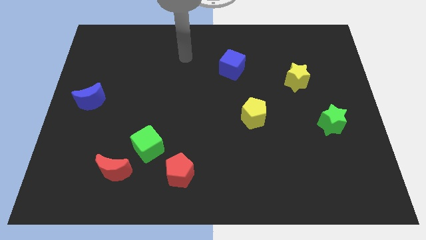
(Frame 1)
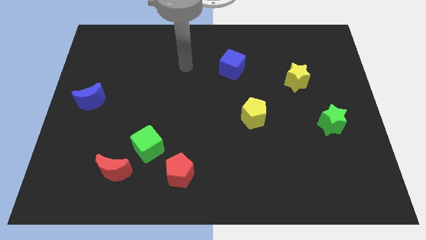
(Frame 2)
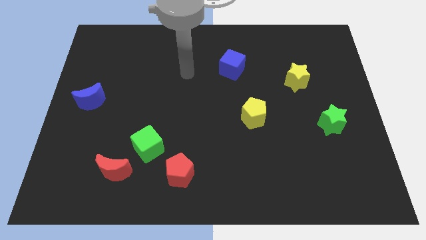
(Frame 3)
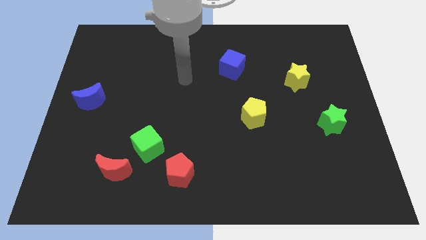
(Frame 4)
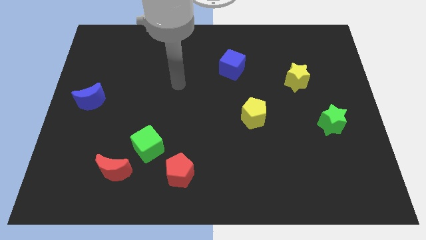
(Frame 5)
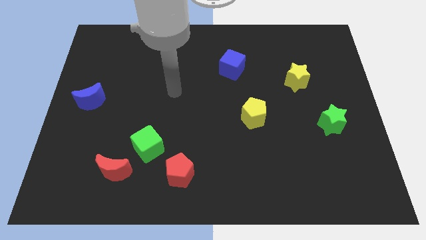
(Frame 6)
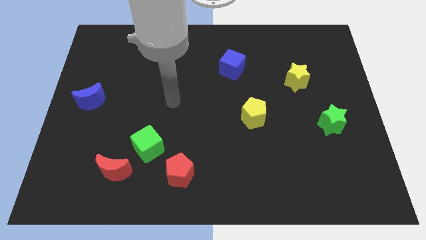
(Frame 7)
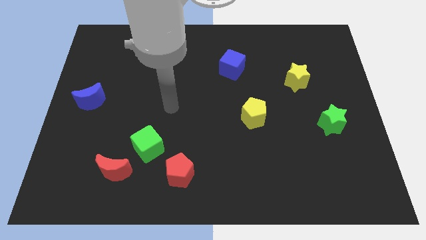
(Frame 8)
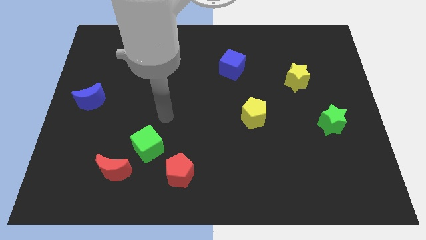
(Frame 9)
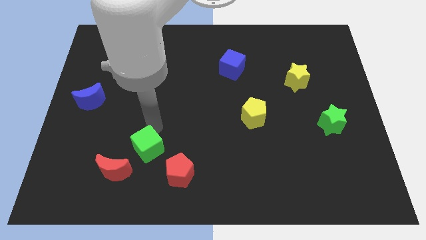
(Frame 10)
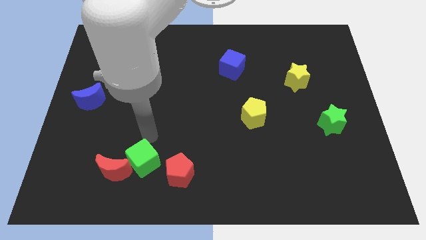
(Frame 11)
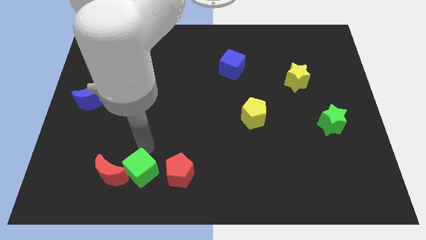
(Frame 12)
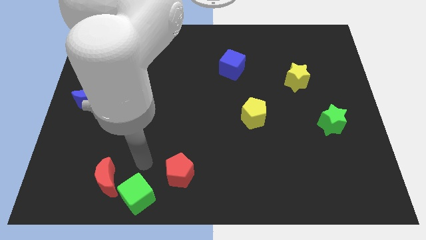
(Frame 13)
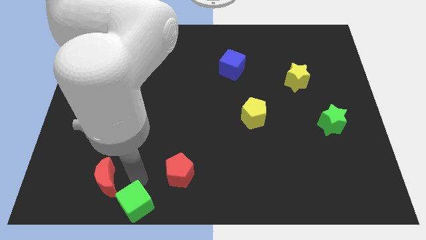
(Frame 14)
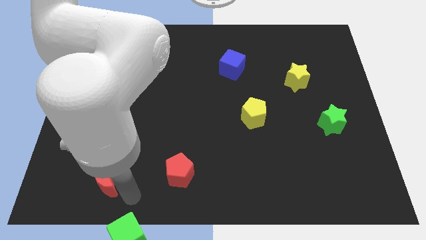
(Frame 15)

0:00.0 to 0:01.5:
separate the red moon from the green cube

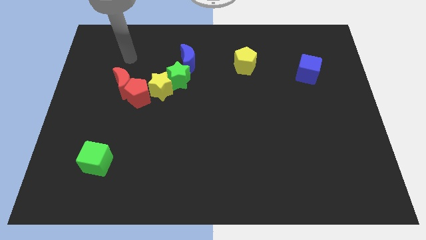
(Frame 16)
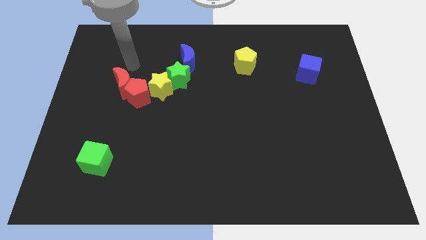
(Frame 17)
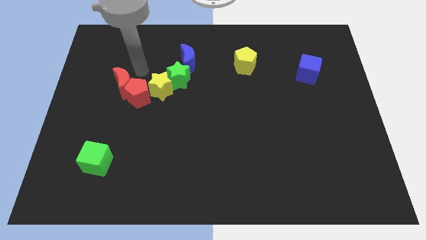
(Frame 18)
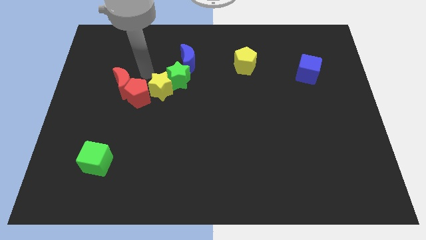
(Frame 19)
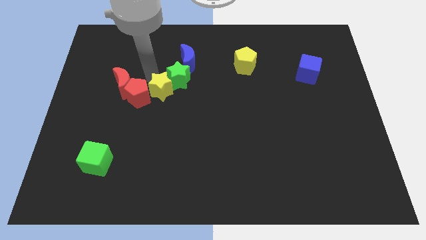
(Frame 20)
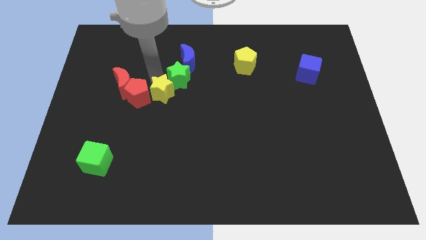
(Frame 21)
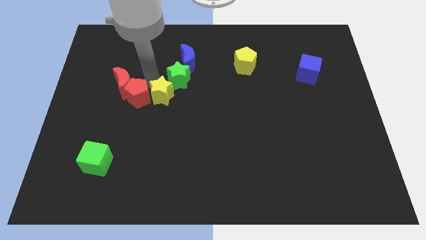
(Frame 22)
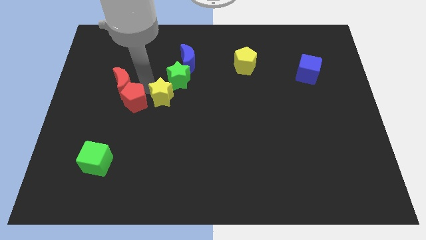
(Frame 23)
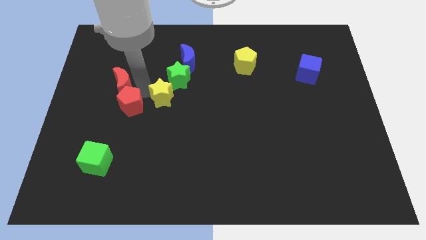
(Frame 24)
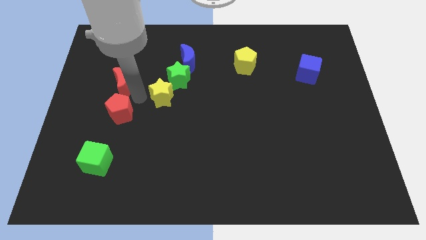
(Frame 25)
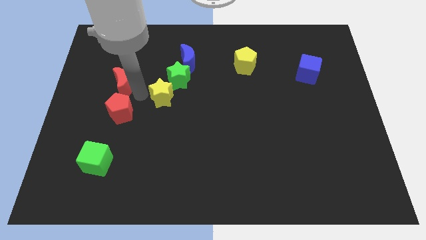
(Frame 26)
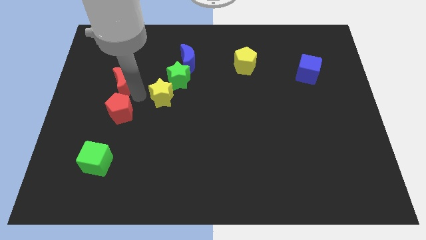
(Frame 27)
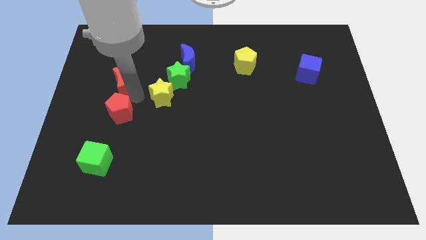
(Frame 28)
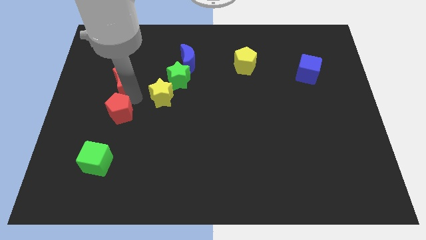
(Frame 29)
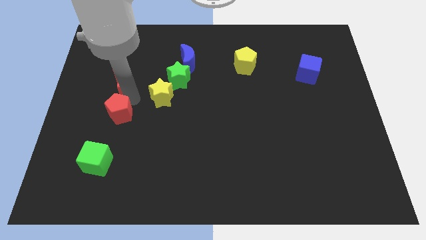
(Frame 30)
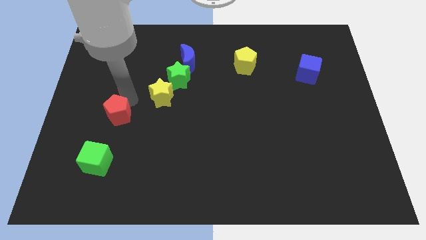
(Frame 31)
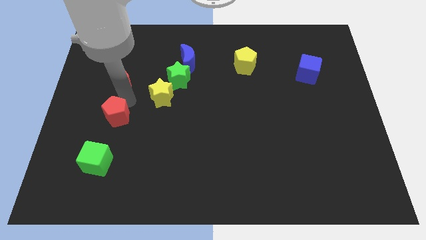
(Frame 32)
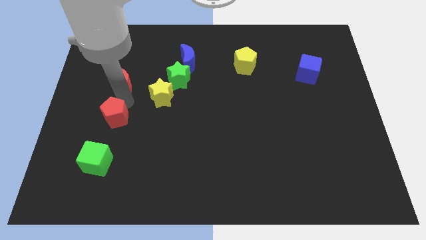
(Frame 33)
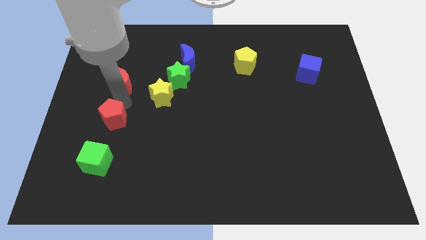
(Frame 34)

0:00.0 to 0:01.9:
separate the red pentagon from the red moon and yellow star

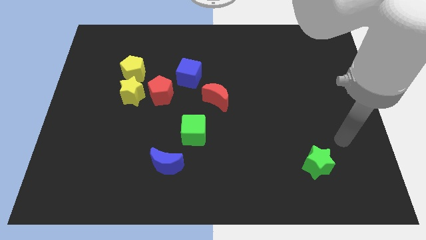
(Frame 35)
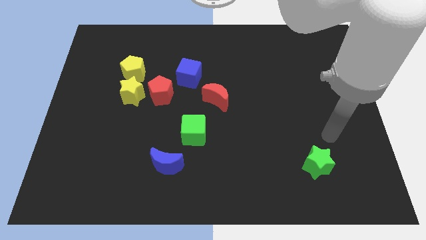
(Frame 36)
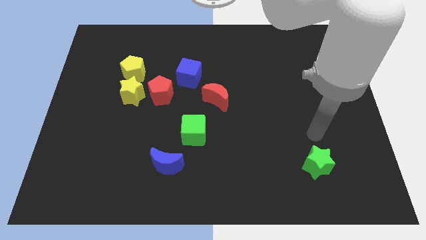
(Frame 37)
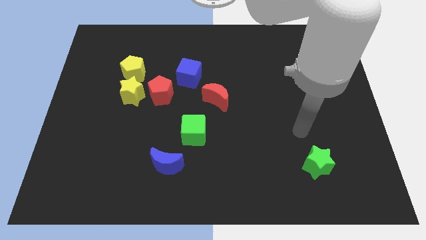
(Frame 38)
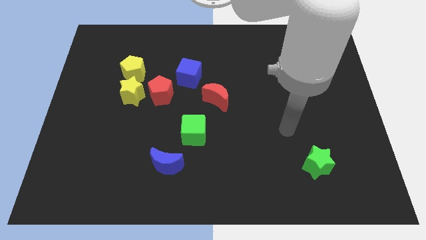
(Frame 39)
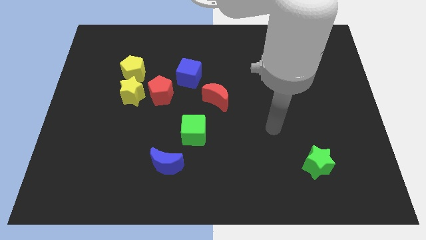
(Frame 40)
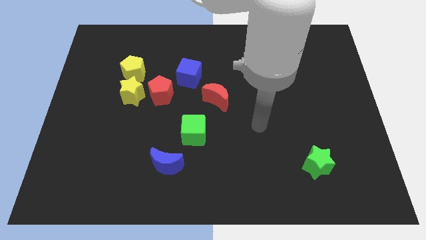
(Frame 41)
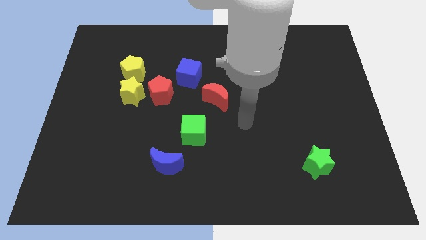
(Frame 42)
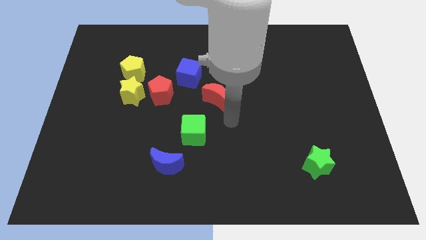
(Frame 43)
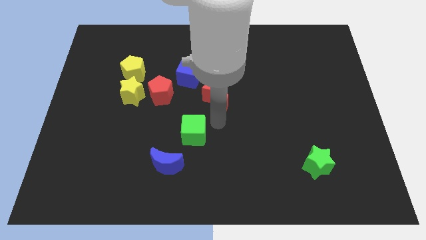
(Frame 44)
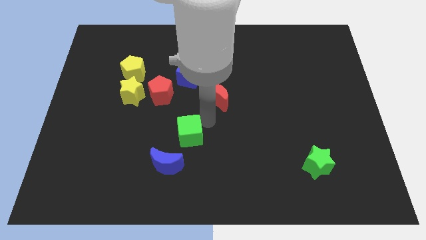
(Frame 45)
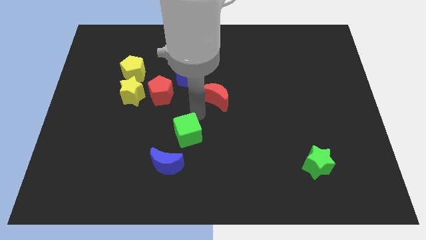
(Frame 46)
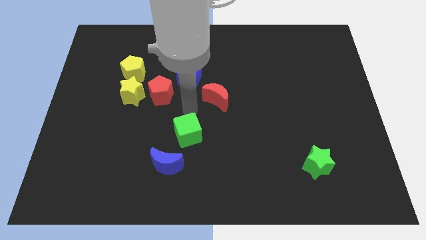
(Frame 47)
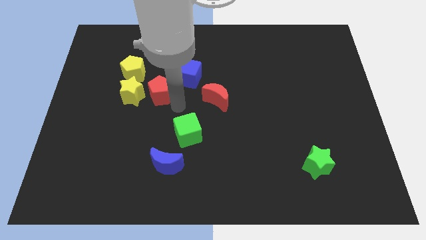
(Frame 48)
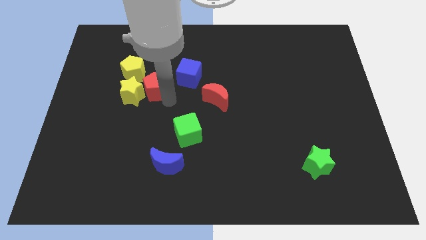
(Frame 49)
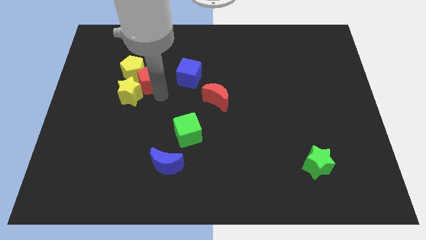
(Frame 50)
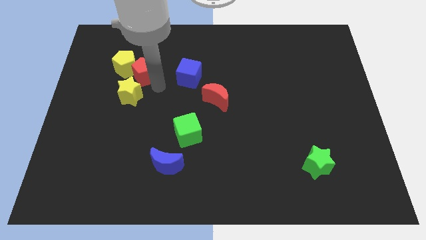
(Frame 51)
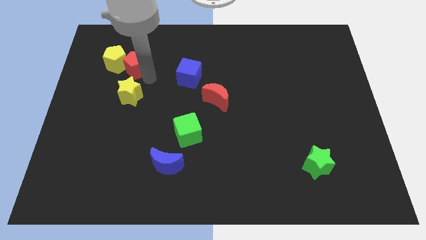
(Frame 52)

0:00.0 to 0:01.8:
move the yellow star away from the red pentagon and yellow pentagon

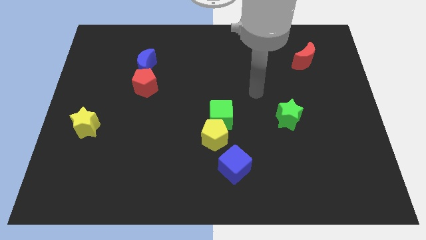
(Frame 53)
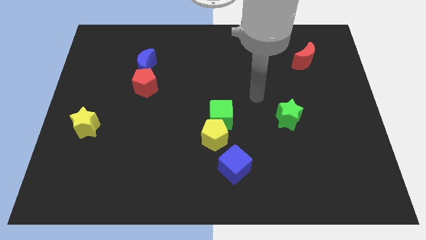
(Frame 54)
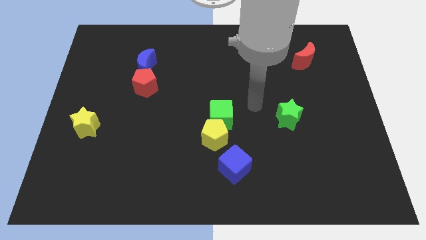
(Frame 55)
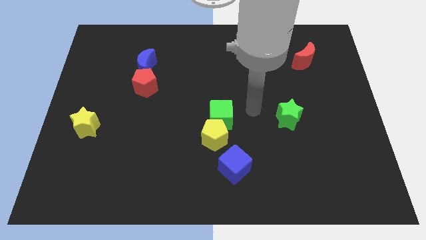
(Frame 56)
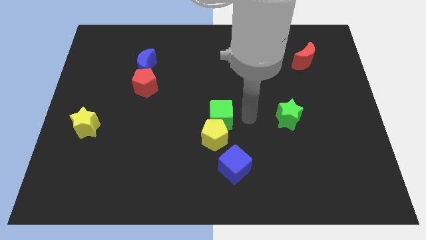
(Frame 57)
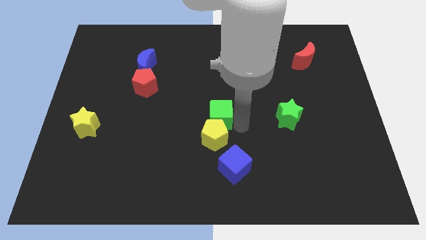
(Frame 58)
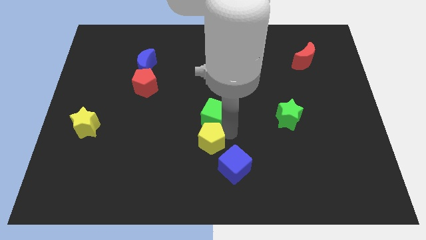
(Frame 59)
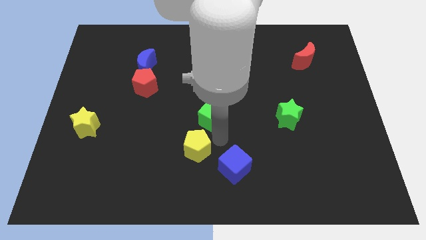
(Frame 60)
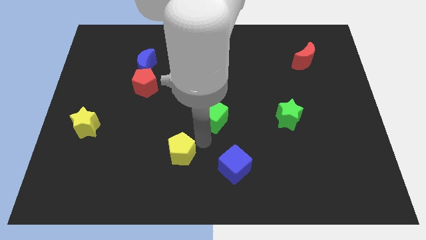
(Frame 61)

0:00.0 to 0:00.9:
separate the green cube from the yellow pentagon

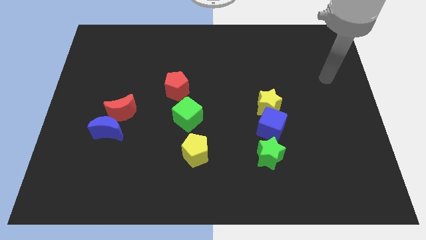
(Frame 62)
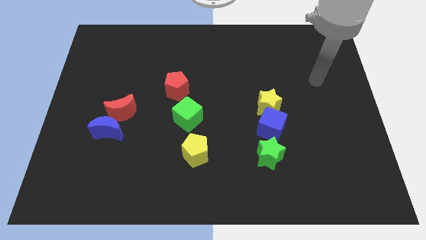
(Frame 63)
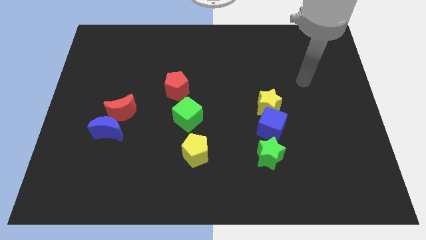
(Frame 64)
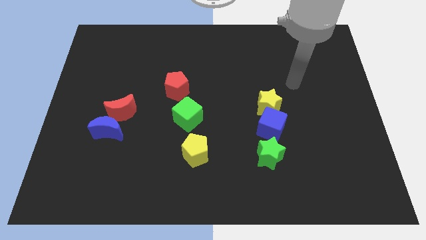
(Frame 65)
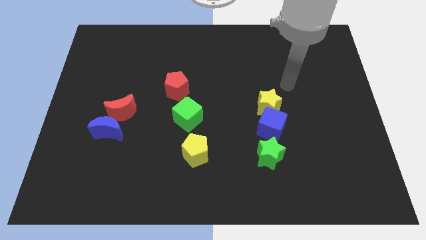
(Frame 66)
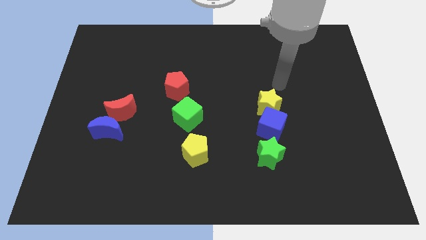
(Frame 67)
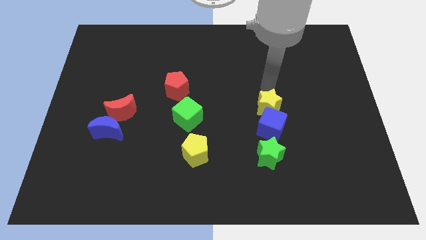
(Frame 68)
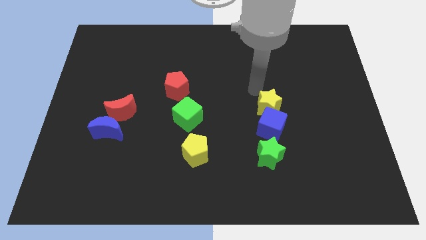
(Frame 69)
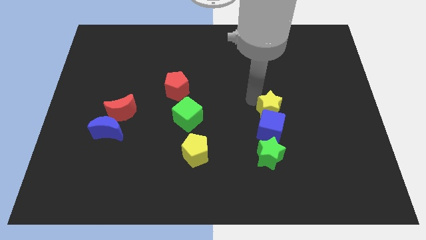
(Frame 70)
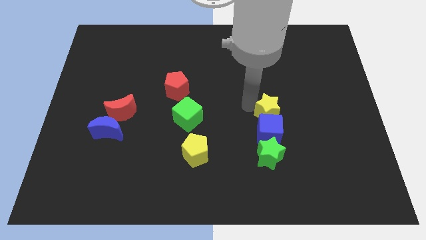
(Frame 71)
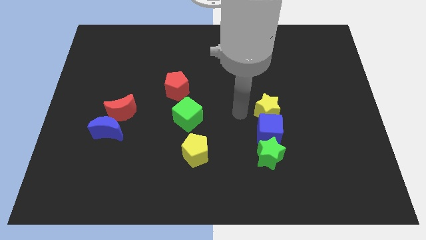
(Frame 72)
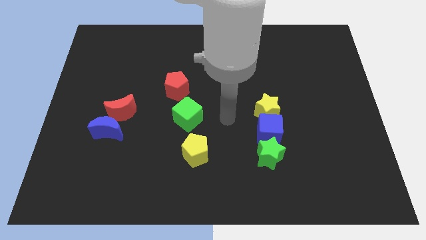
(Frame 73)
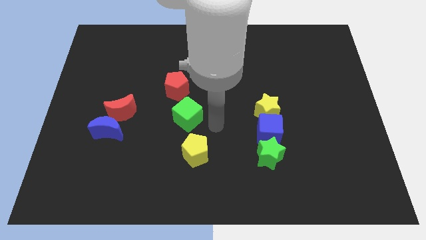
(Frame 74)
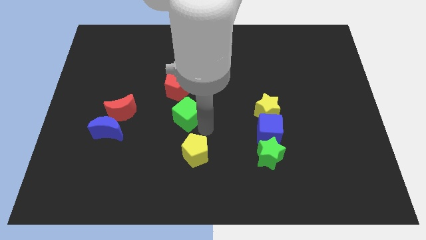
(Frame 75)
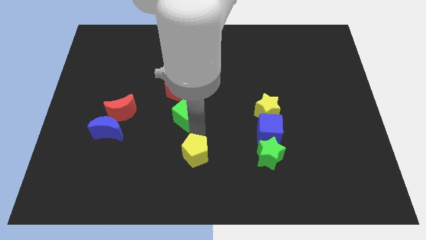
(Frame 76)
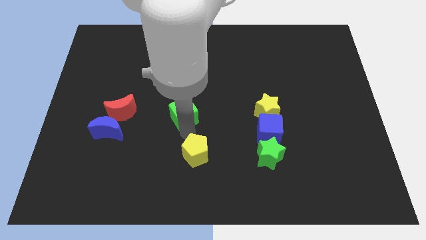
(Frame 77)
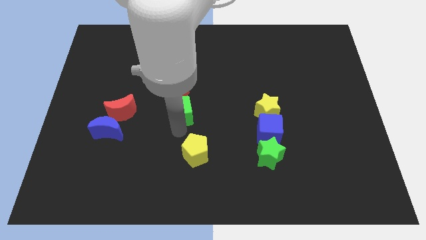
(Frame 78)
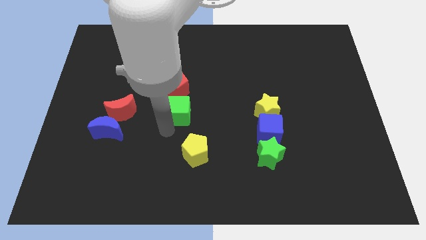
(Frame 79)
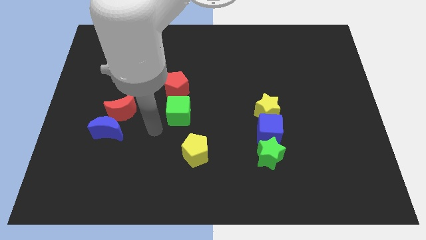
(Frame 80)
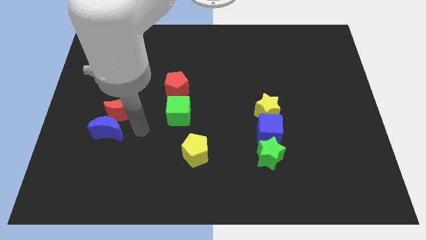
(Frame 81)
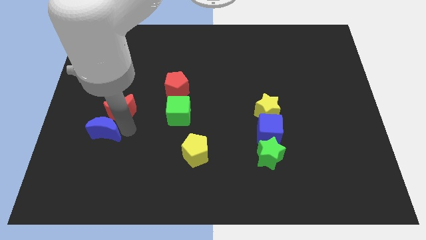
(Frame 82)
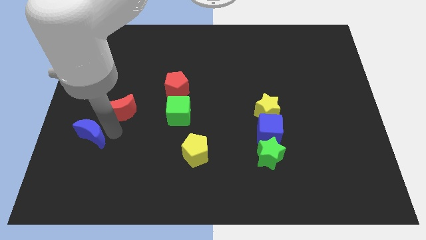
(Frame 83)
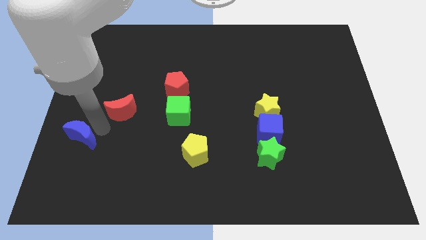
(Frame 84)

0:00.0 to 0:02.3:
pull the red moon apart from the blue moon

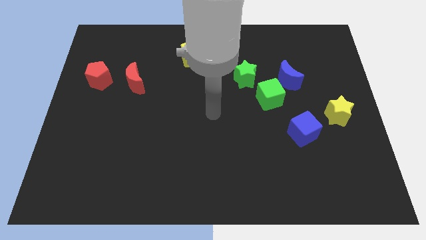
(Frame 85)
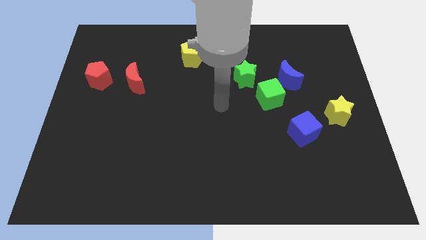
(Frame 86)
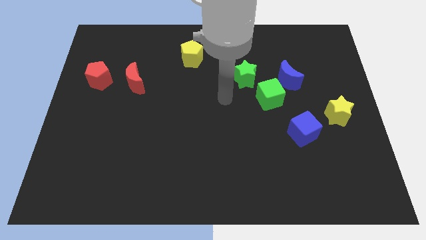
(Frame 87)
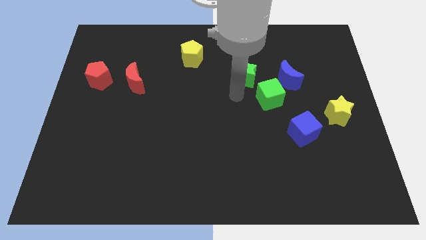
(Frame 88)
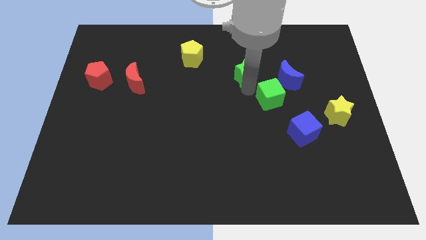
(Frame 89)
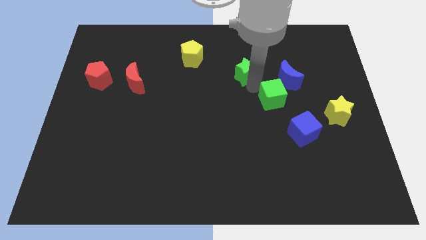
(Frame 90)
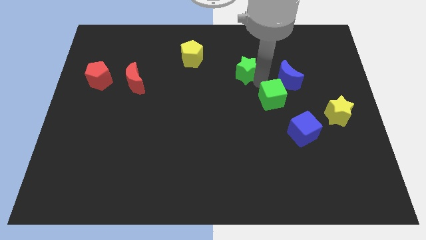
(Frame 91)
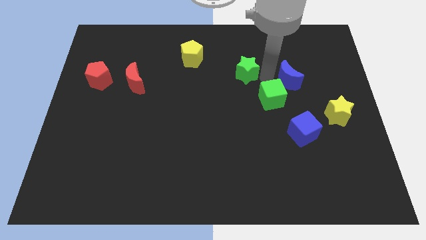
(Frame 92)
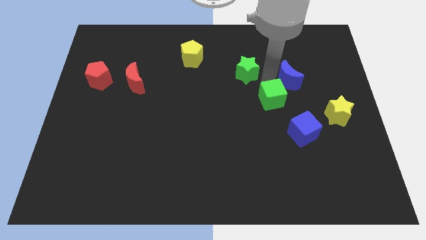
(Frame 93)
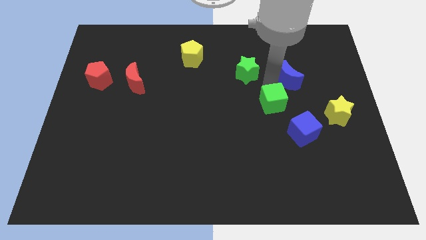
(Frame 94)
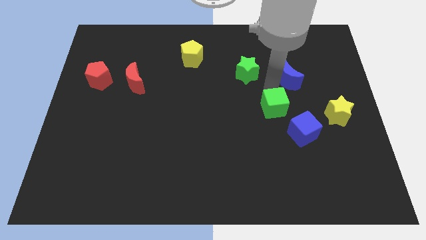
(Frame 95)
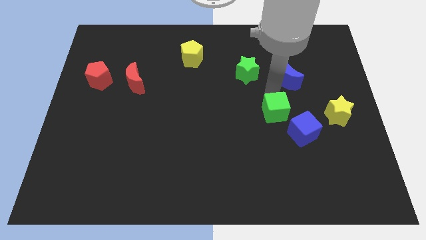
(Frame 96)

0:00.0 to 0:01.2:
pull the green cube apart from the blue moon and green star
